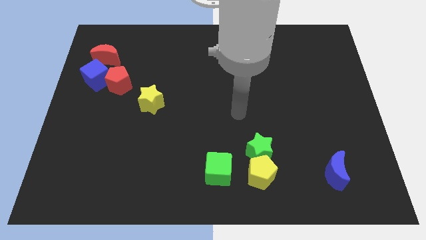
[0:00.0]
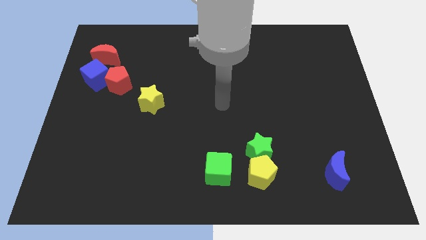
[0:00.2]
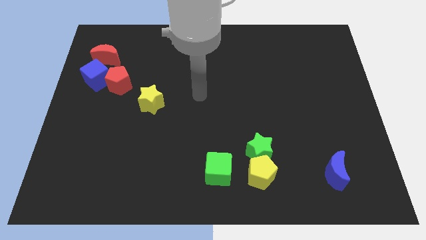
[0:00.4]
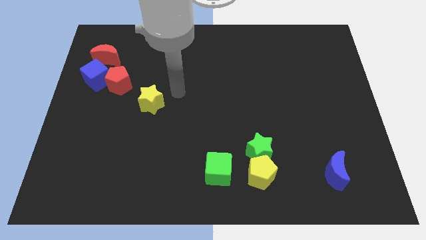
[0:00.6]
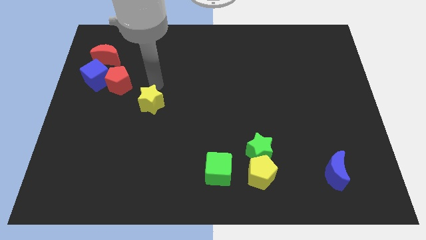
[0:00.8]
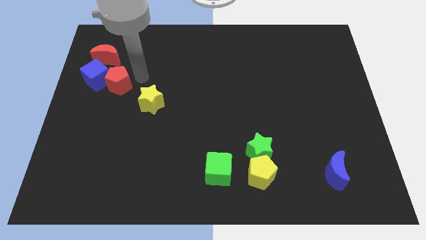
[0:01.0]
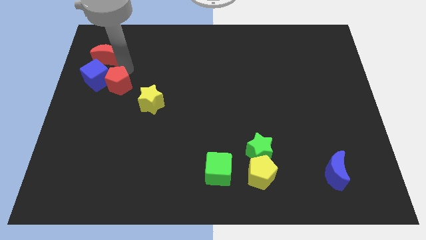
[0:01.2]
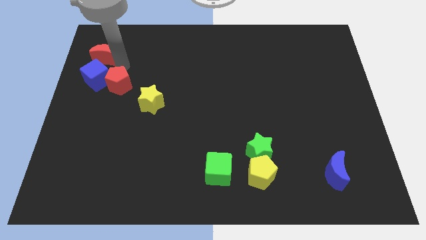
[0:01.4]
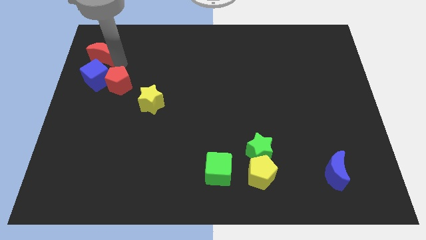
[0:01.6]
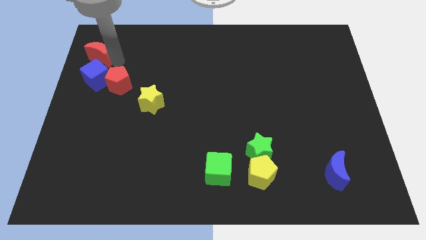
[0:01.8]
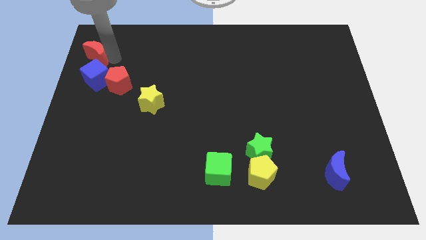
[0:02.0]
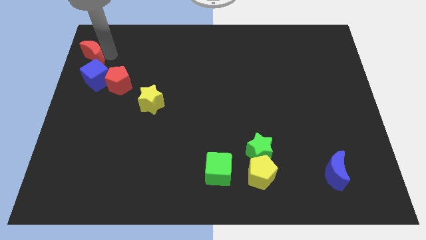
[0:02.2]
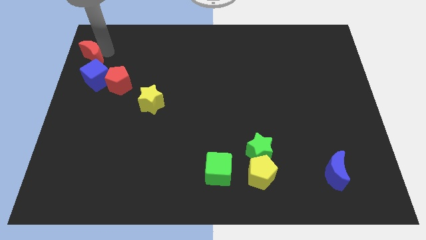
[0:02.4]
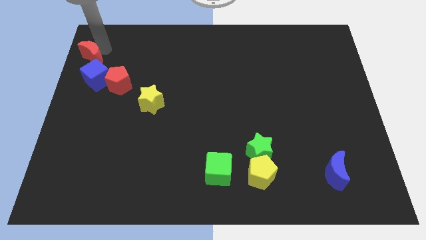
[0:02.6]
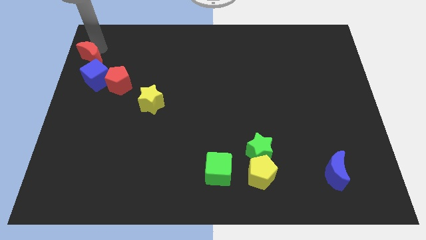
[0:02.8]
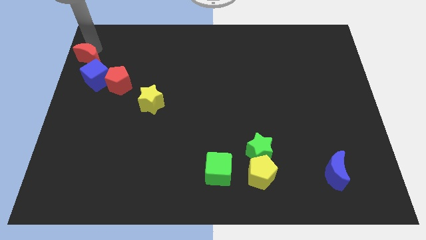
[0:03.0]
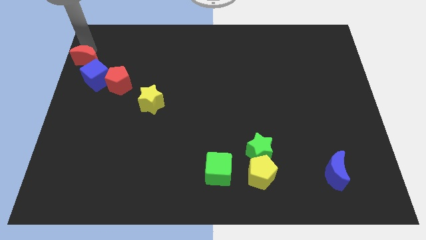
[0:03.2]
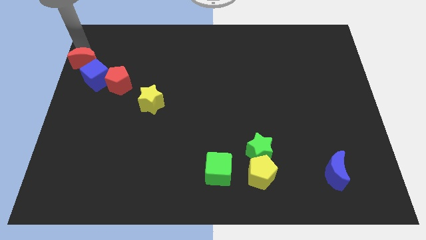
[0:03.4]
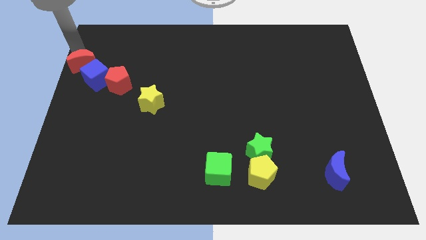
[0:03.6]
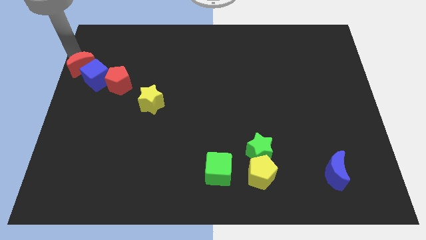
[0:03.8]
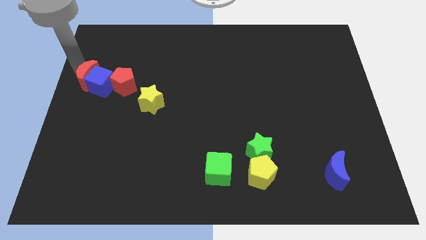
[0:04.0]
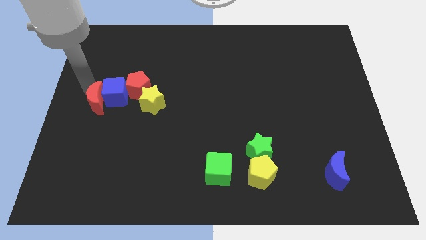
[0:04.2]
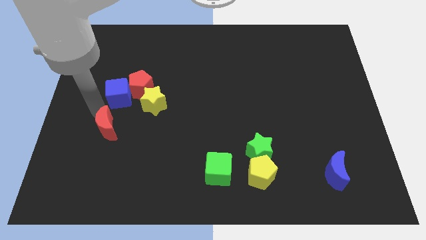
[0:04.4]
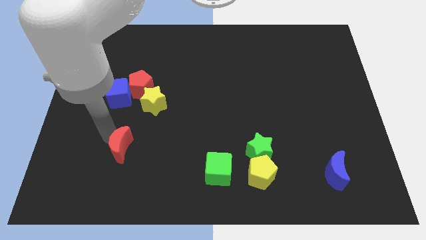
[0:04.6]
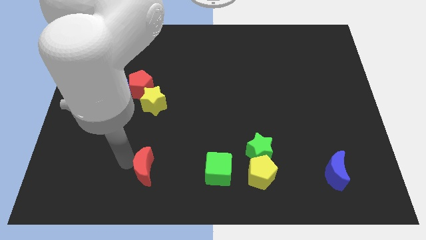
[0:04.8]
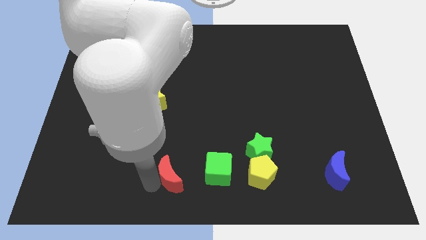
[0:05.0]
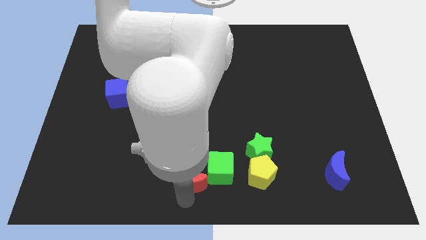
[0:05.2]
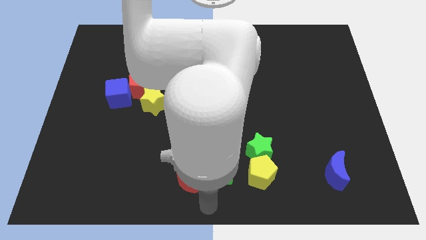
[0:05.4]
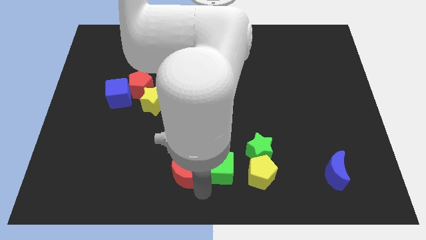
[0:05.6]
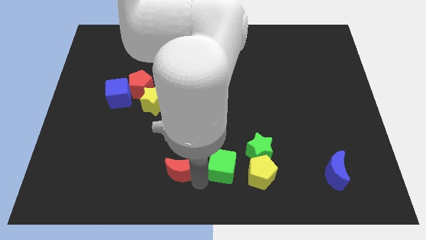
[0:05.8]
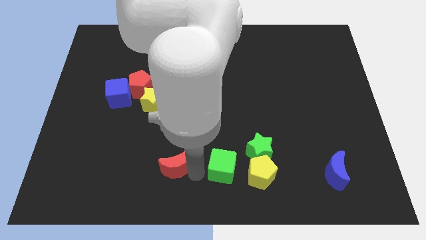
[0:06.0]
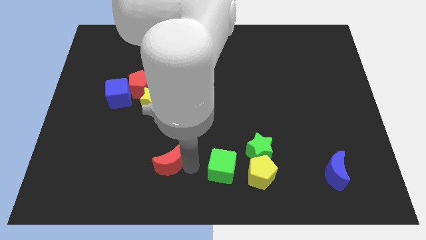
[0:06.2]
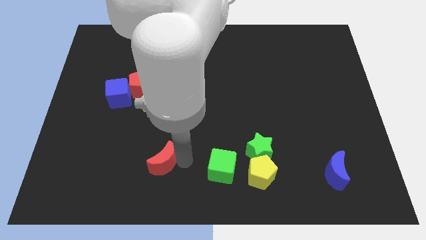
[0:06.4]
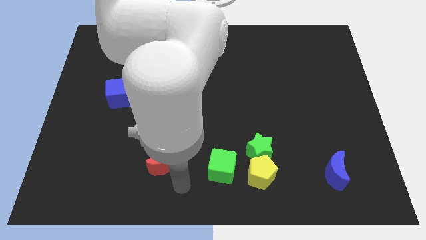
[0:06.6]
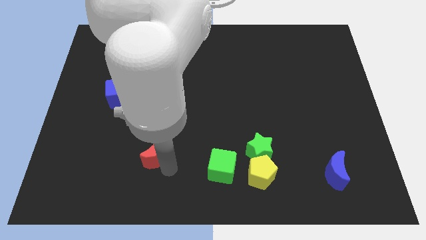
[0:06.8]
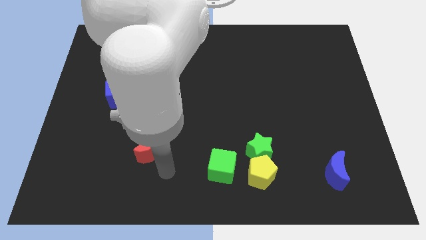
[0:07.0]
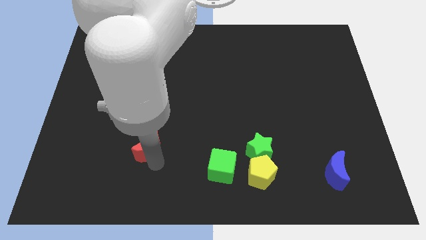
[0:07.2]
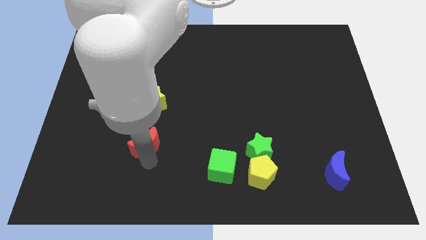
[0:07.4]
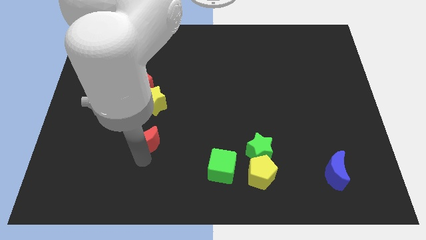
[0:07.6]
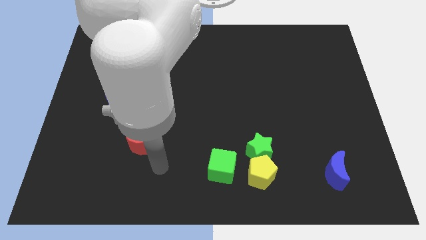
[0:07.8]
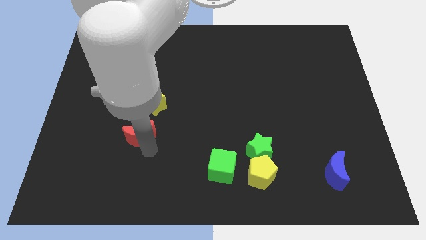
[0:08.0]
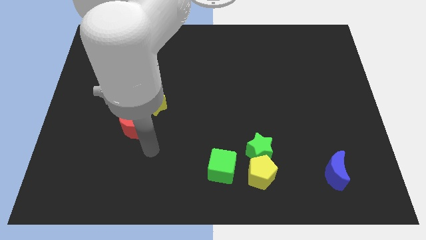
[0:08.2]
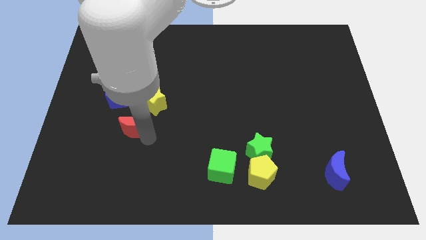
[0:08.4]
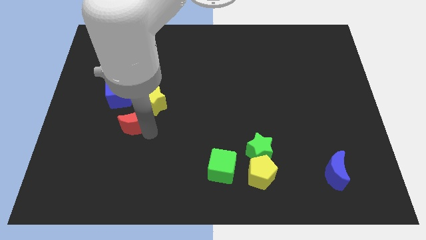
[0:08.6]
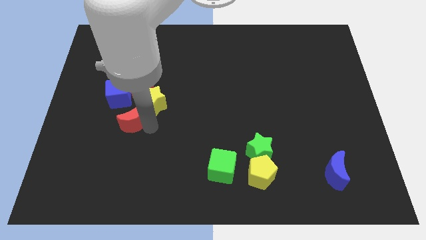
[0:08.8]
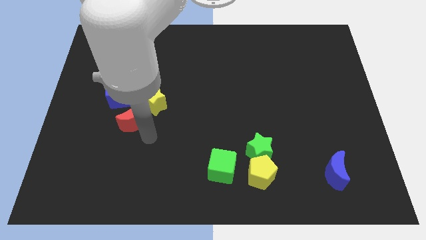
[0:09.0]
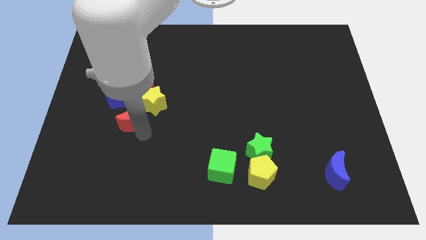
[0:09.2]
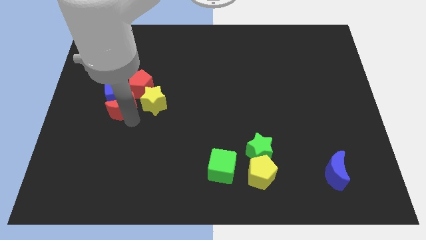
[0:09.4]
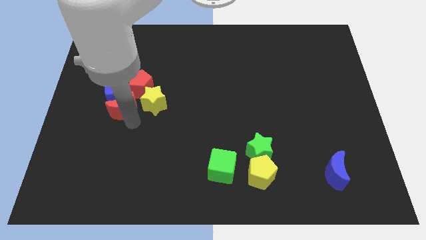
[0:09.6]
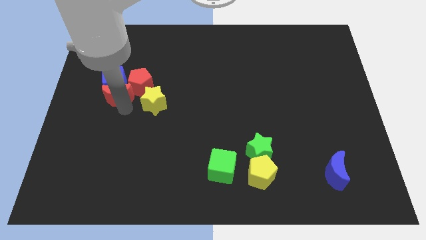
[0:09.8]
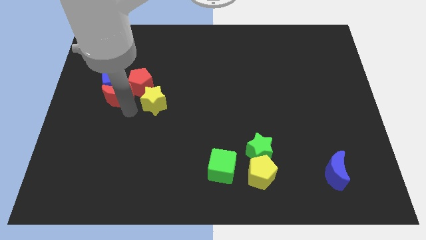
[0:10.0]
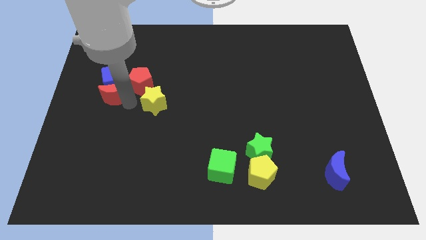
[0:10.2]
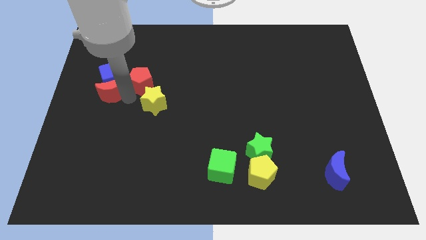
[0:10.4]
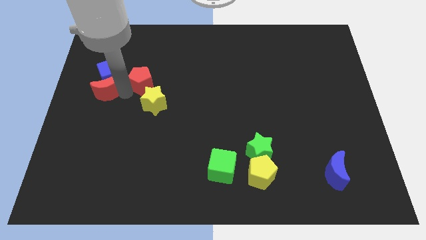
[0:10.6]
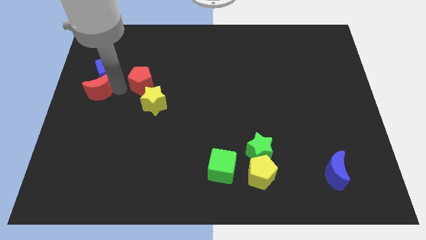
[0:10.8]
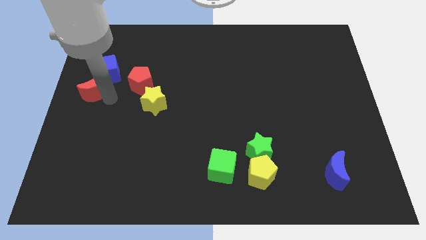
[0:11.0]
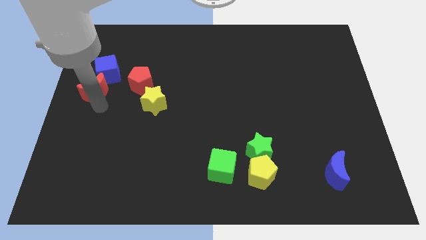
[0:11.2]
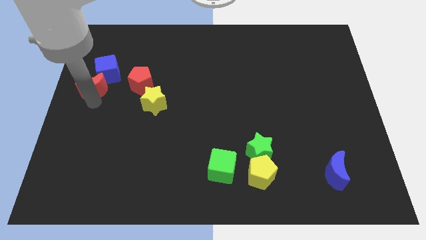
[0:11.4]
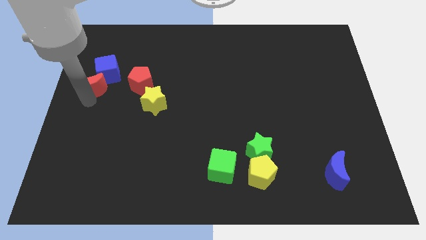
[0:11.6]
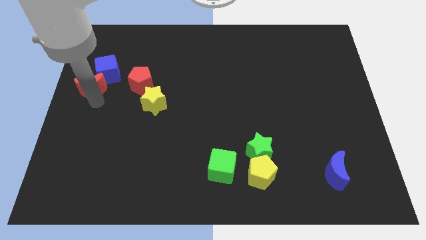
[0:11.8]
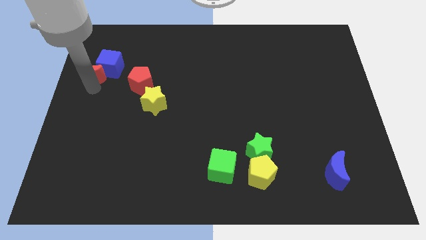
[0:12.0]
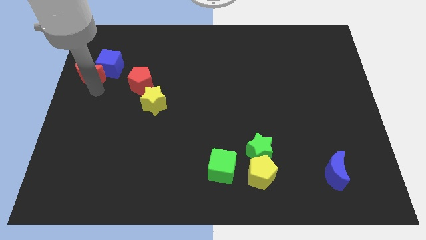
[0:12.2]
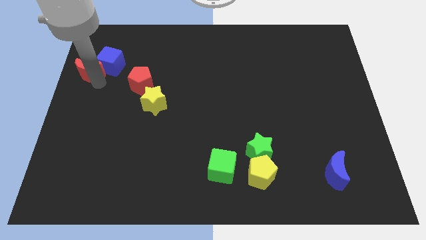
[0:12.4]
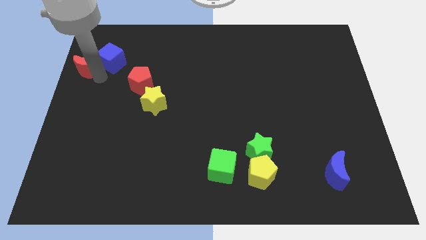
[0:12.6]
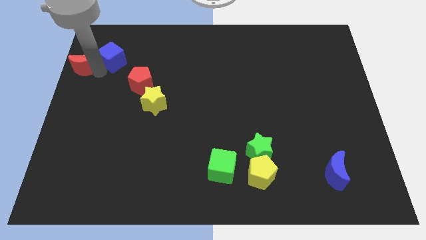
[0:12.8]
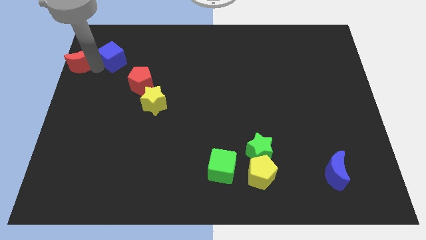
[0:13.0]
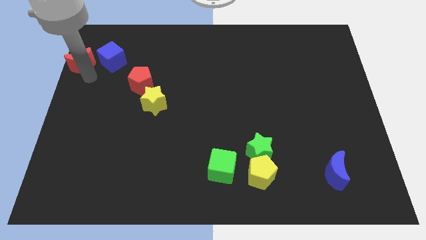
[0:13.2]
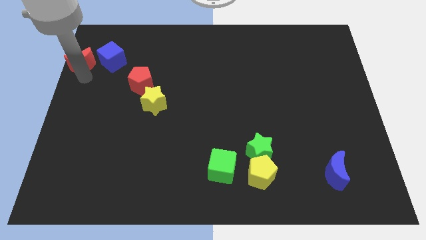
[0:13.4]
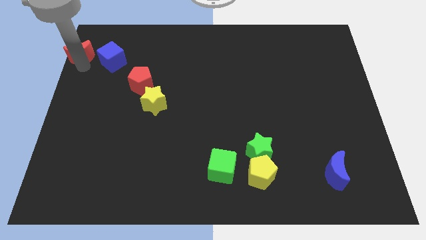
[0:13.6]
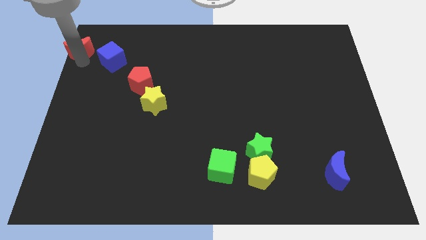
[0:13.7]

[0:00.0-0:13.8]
put the red moon to the upper left corner
